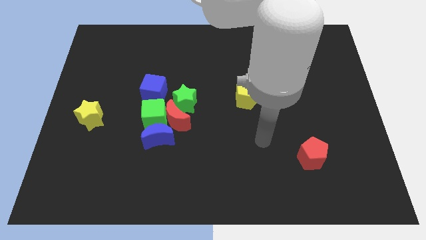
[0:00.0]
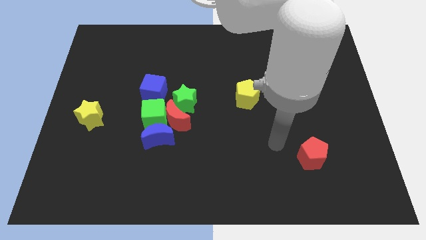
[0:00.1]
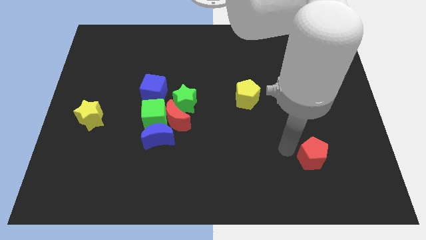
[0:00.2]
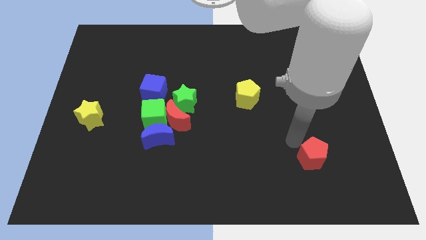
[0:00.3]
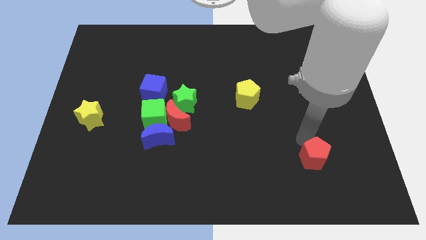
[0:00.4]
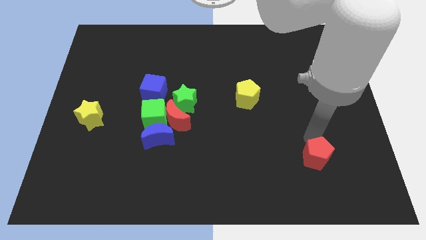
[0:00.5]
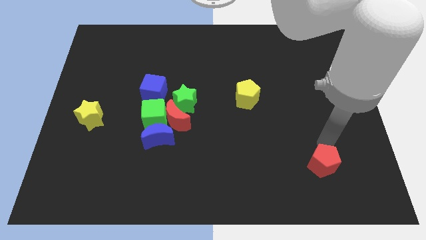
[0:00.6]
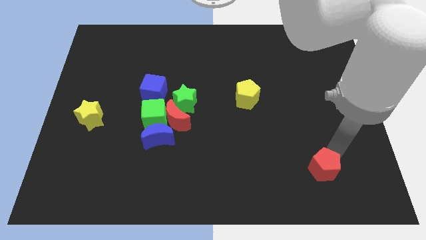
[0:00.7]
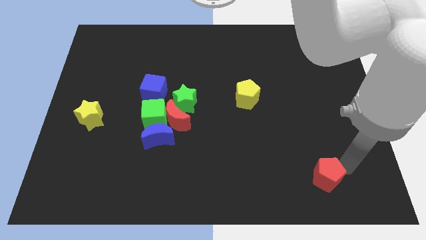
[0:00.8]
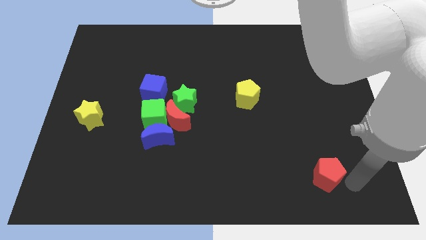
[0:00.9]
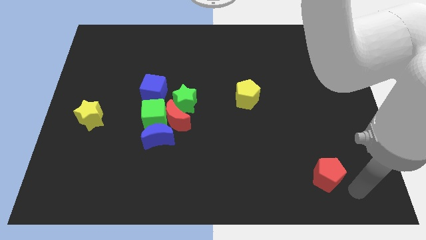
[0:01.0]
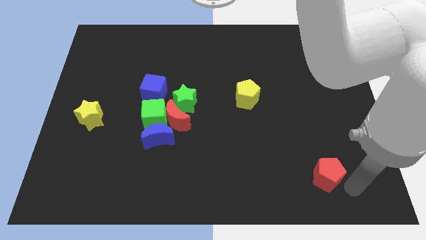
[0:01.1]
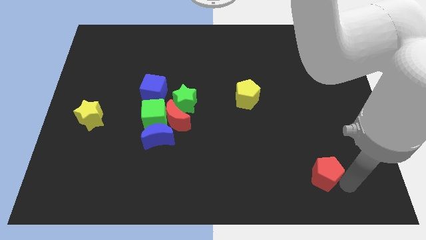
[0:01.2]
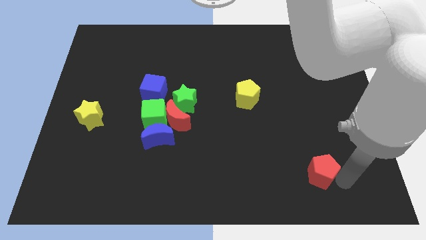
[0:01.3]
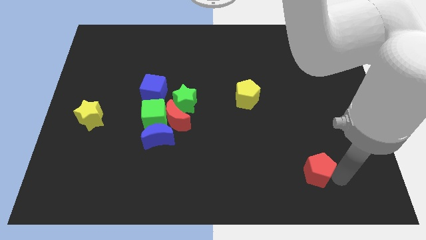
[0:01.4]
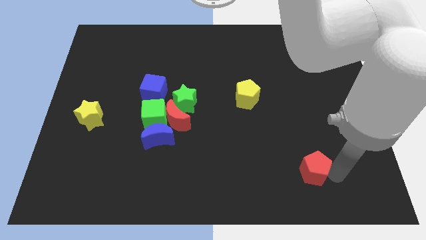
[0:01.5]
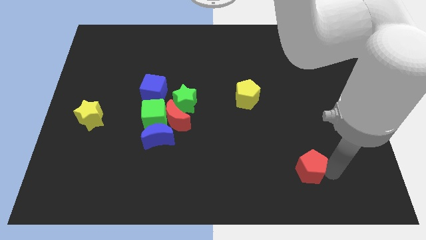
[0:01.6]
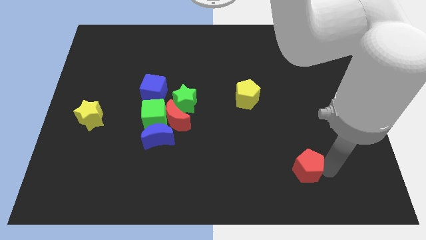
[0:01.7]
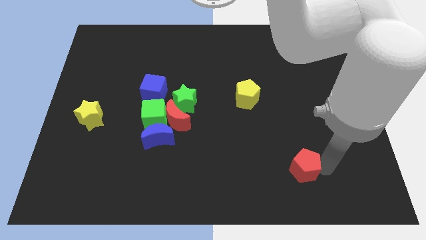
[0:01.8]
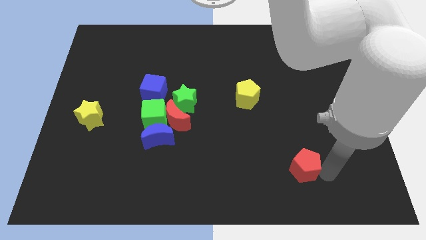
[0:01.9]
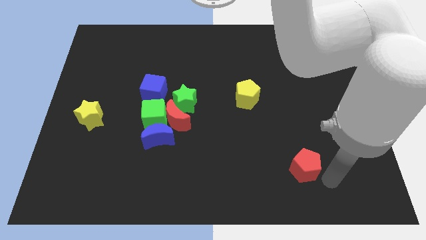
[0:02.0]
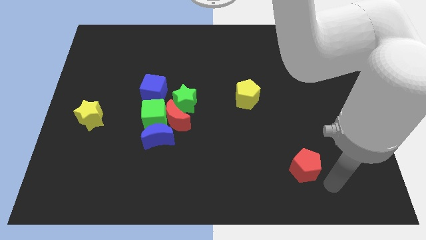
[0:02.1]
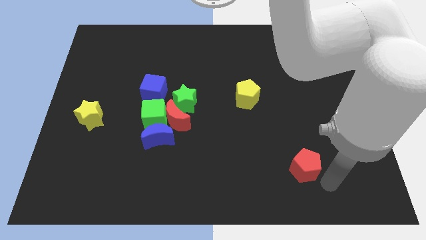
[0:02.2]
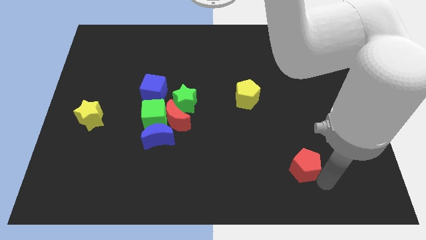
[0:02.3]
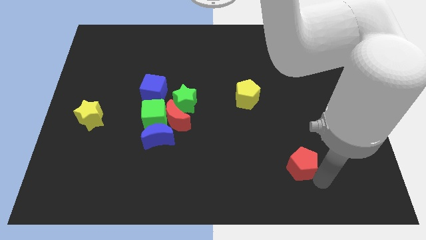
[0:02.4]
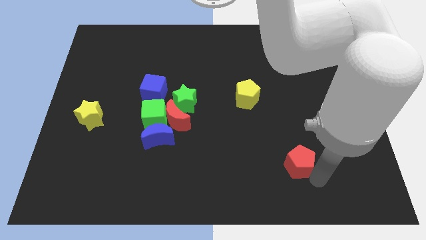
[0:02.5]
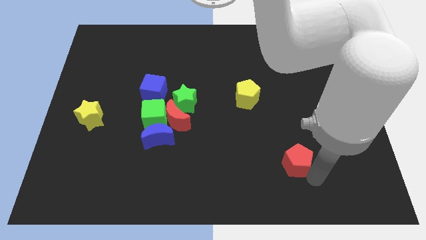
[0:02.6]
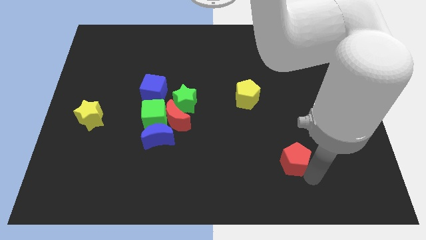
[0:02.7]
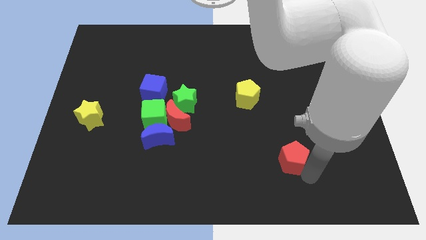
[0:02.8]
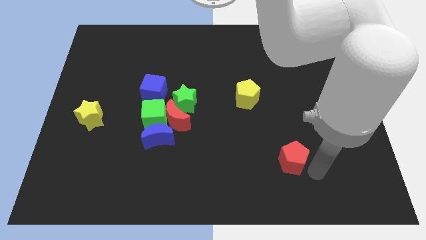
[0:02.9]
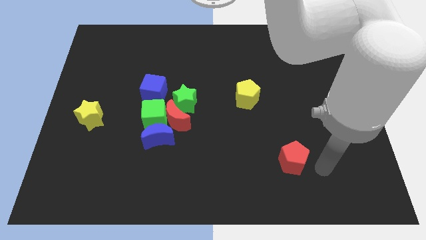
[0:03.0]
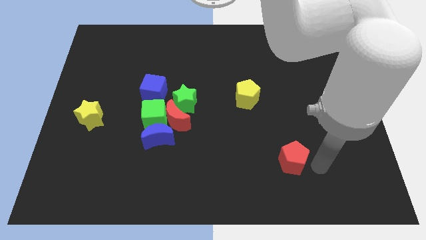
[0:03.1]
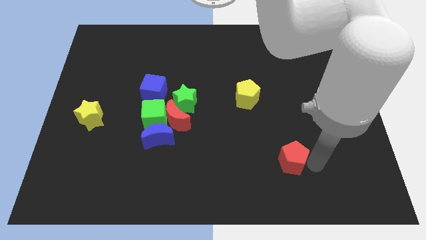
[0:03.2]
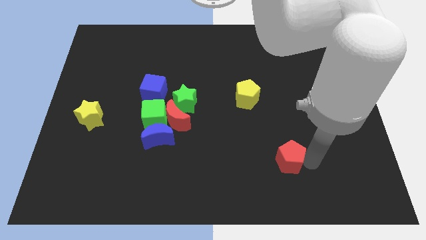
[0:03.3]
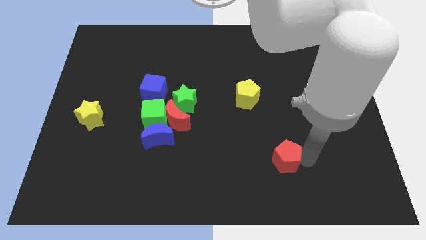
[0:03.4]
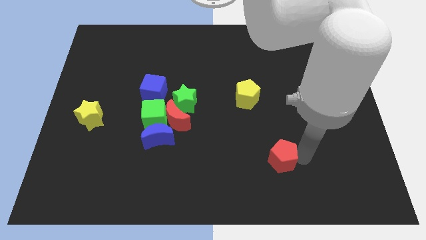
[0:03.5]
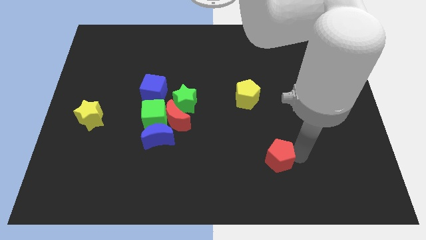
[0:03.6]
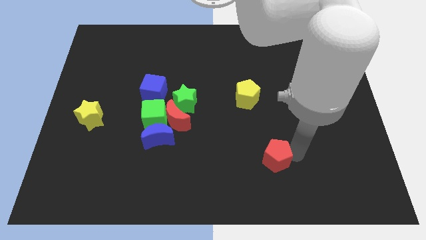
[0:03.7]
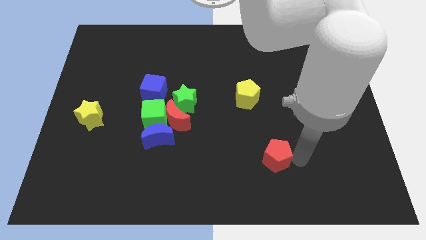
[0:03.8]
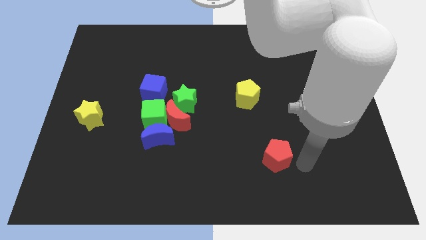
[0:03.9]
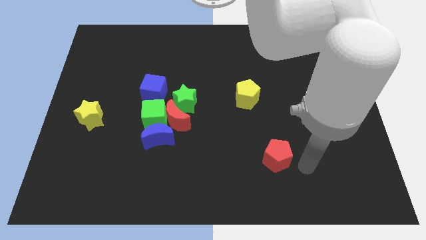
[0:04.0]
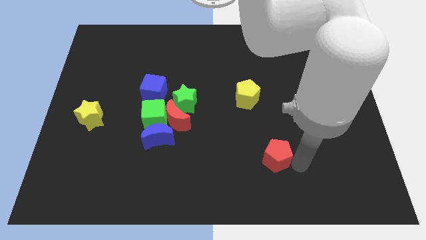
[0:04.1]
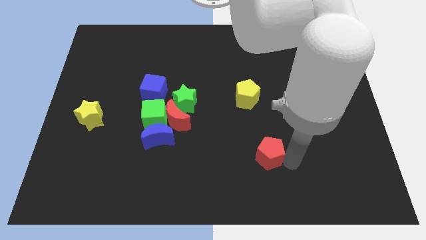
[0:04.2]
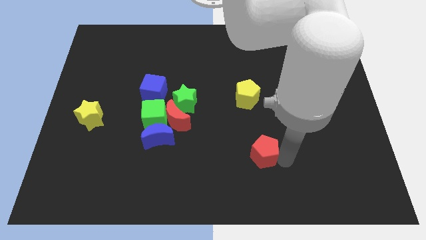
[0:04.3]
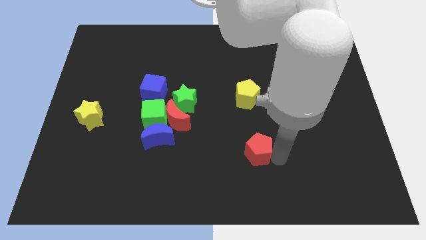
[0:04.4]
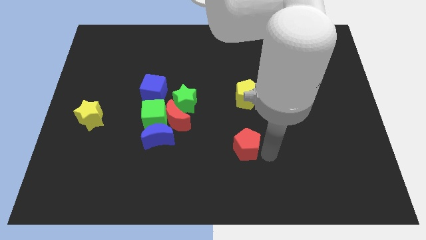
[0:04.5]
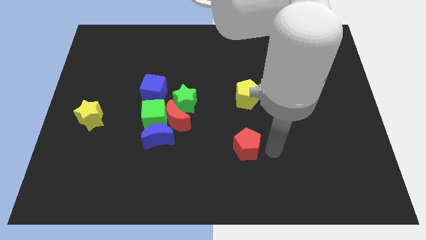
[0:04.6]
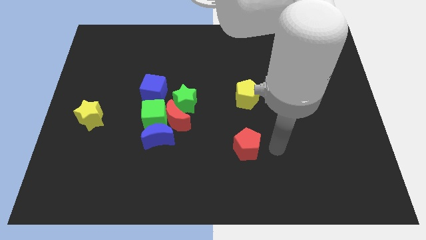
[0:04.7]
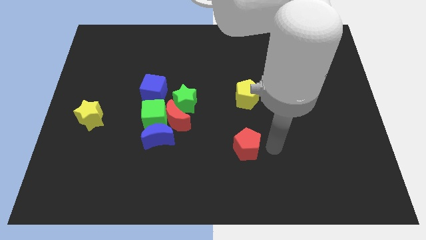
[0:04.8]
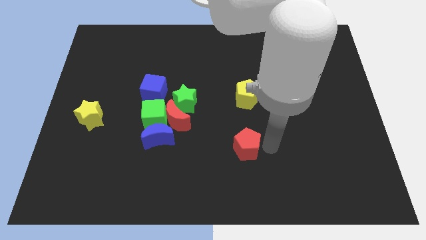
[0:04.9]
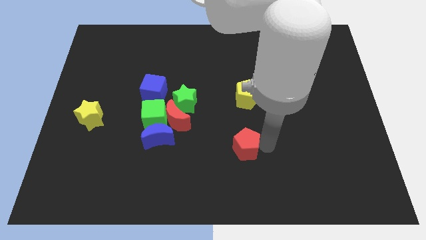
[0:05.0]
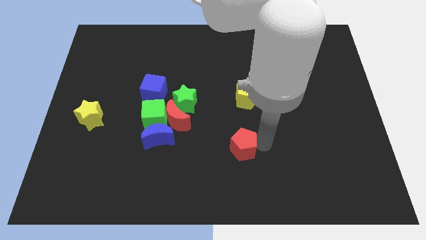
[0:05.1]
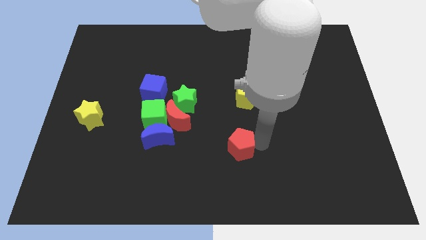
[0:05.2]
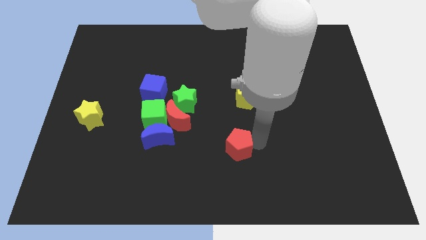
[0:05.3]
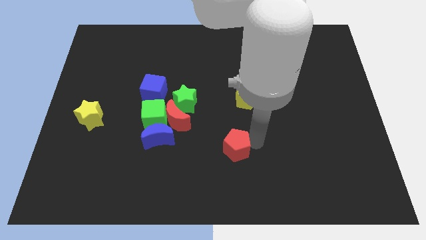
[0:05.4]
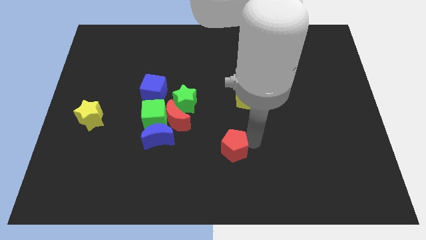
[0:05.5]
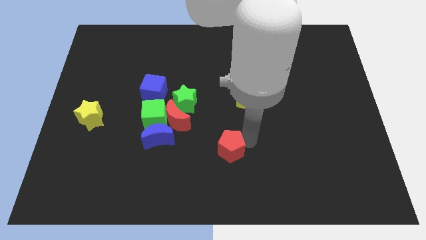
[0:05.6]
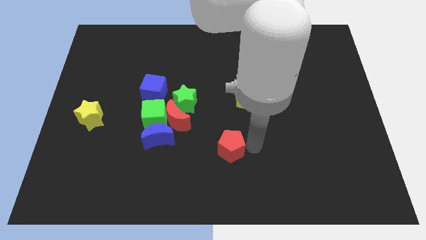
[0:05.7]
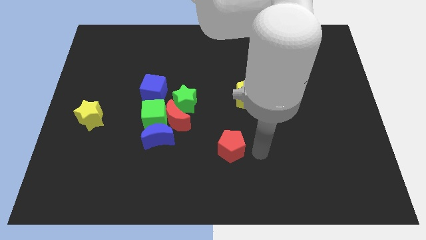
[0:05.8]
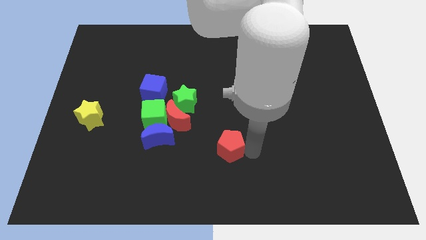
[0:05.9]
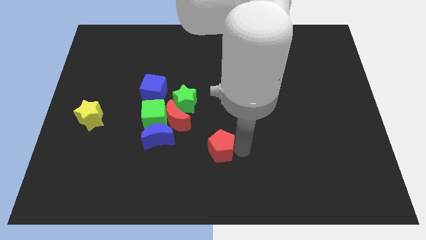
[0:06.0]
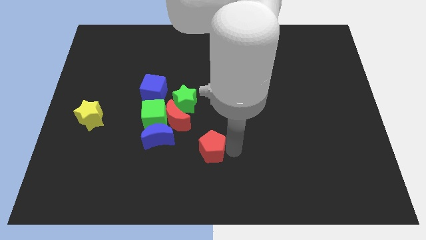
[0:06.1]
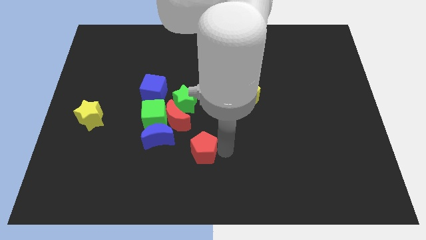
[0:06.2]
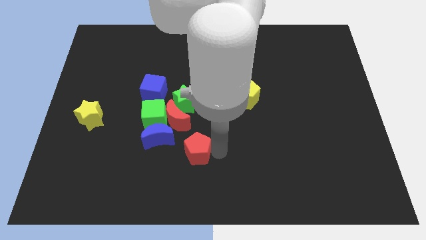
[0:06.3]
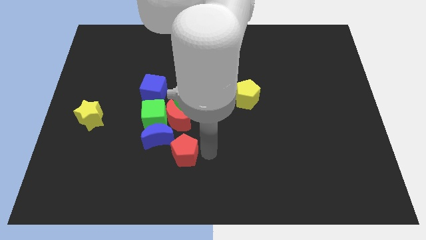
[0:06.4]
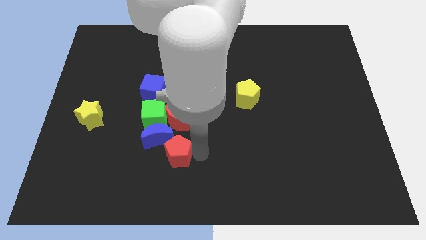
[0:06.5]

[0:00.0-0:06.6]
push the red pentagon to the blue moon
